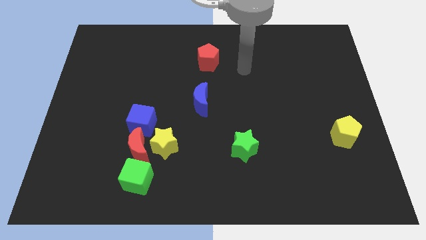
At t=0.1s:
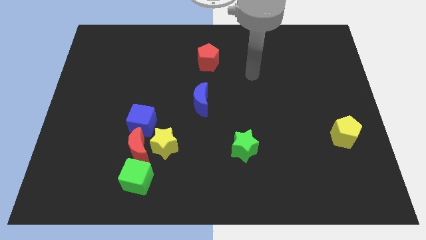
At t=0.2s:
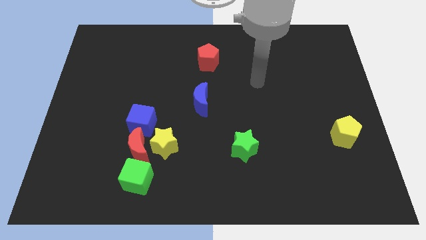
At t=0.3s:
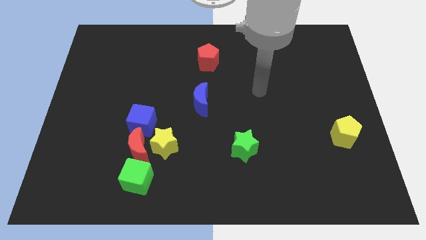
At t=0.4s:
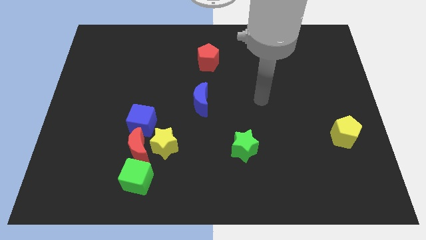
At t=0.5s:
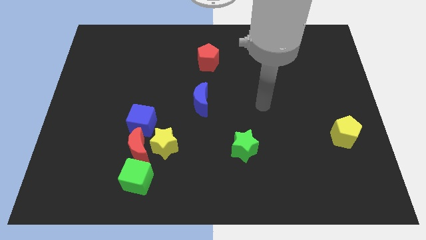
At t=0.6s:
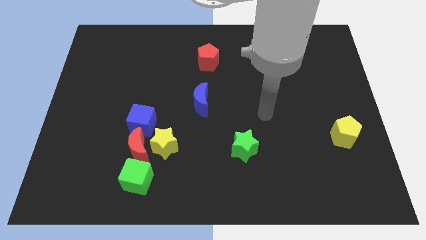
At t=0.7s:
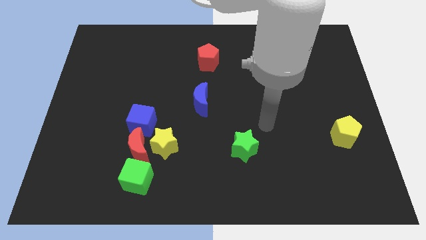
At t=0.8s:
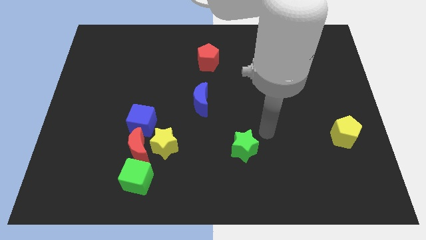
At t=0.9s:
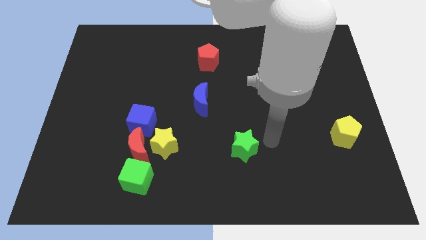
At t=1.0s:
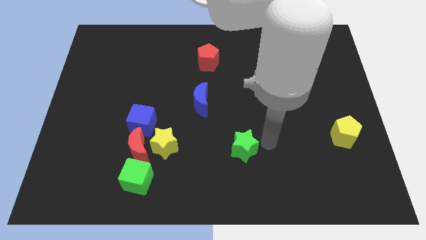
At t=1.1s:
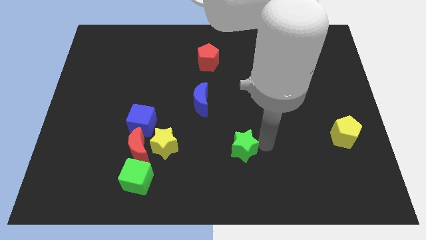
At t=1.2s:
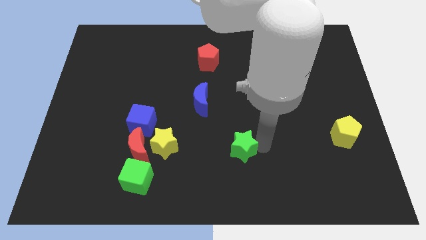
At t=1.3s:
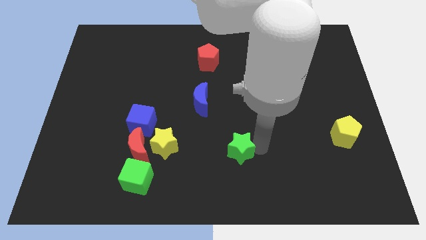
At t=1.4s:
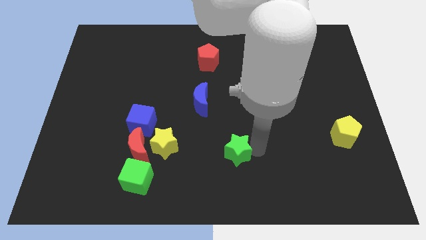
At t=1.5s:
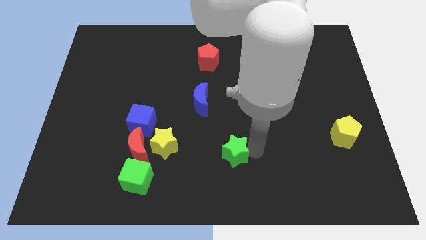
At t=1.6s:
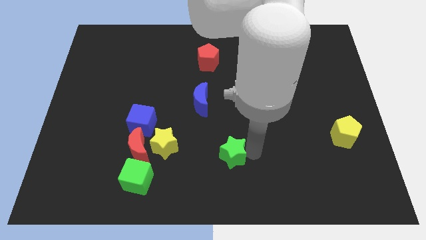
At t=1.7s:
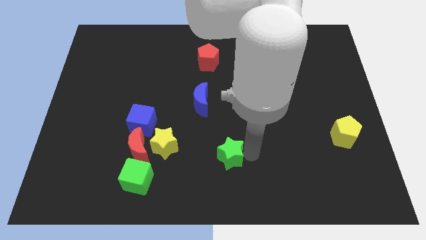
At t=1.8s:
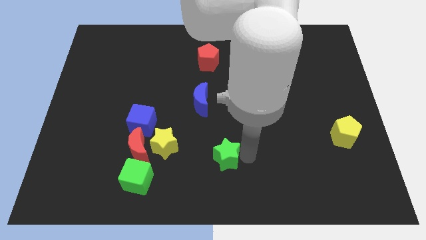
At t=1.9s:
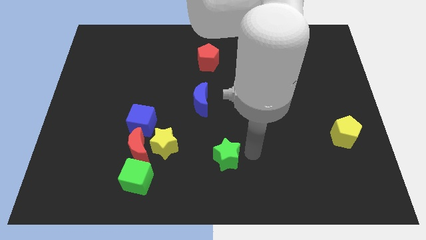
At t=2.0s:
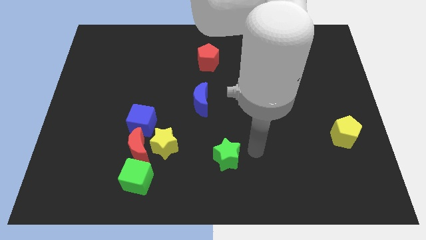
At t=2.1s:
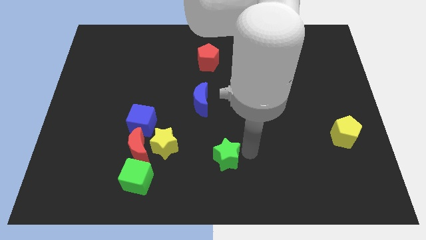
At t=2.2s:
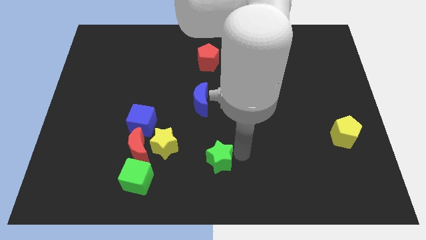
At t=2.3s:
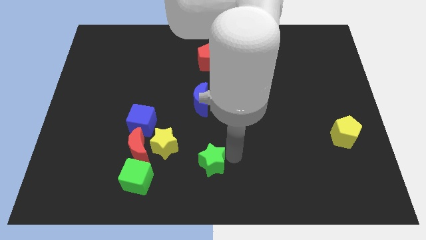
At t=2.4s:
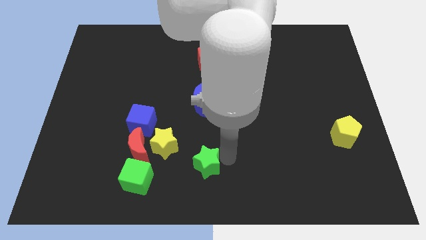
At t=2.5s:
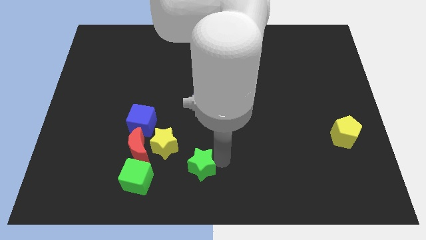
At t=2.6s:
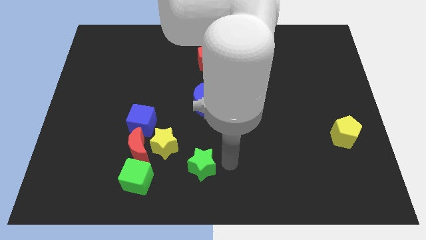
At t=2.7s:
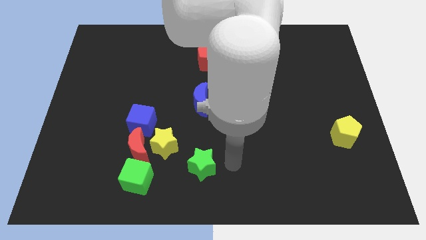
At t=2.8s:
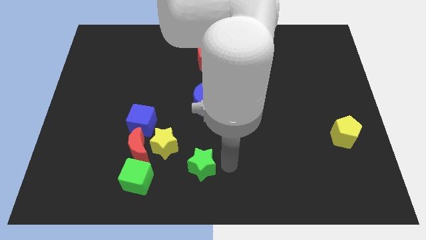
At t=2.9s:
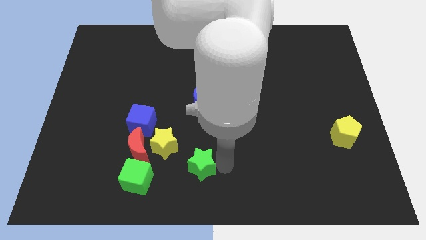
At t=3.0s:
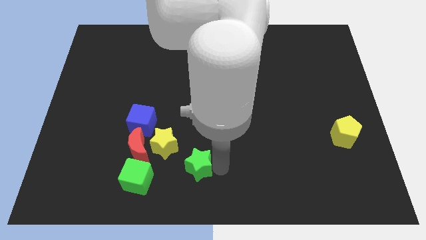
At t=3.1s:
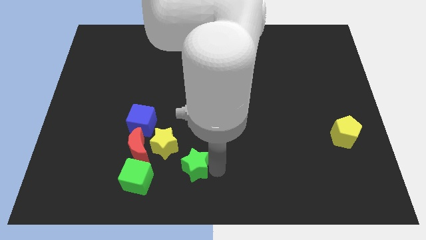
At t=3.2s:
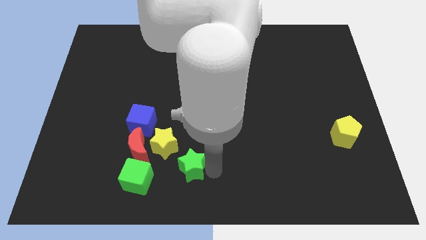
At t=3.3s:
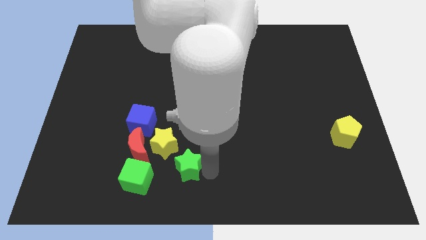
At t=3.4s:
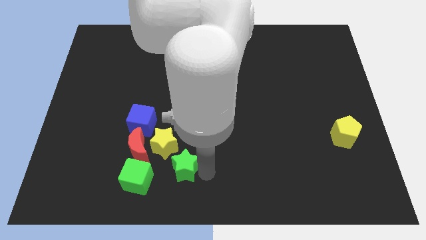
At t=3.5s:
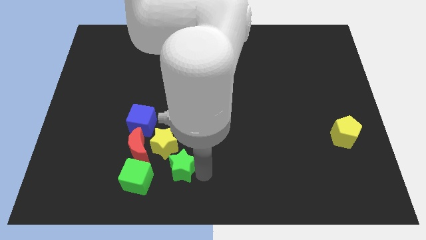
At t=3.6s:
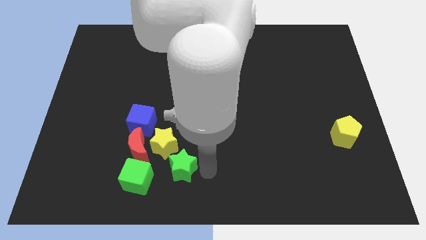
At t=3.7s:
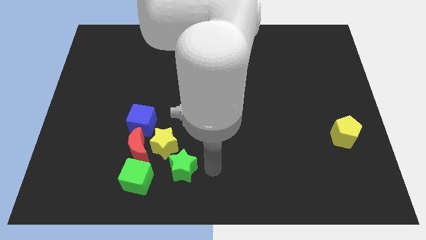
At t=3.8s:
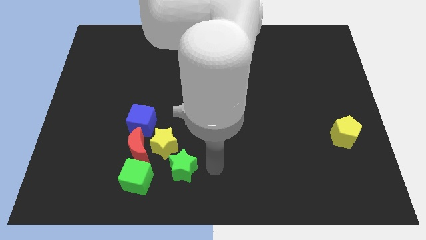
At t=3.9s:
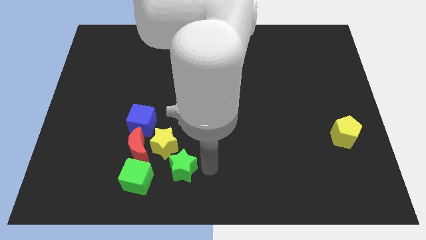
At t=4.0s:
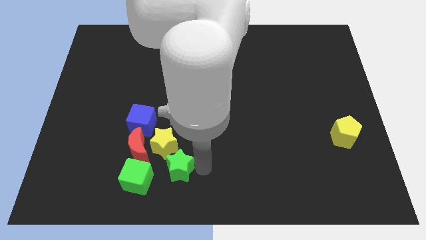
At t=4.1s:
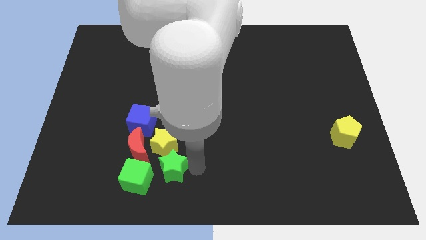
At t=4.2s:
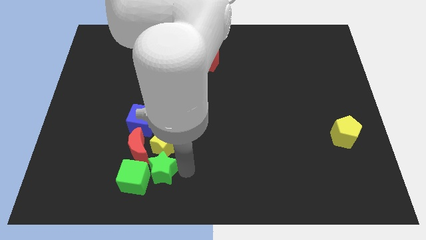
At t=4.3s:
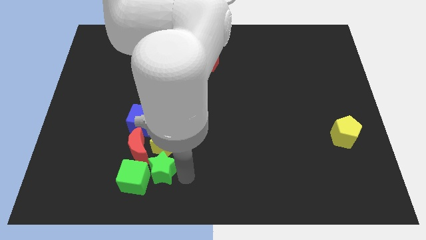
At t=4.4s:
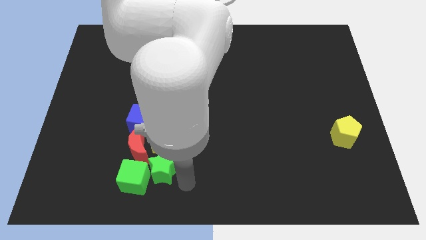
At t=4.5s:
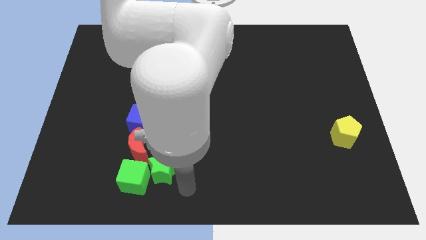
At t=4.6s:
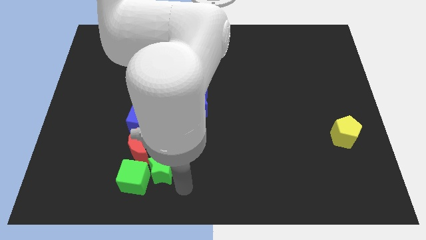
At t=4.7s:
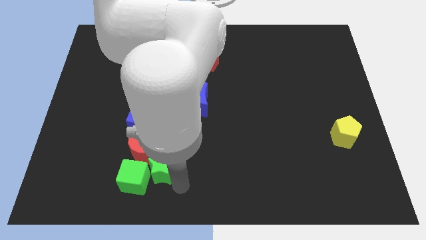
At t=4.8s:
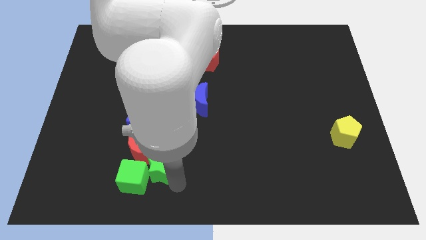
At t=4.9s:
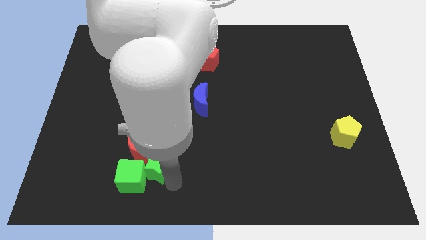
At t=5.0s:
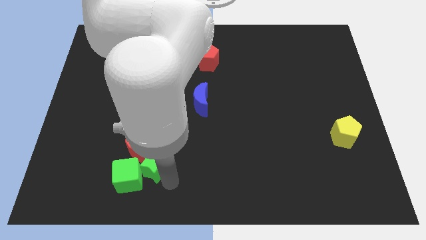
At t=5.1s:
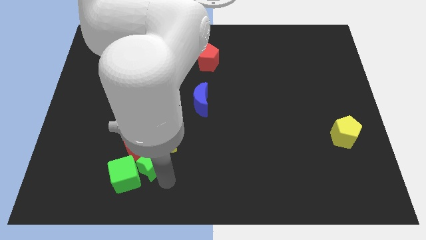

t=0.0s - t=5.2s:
slide the green star close to the red moon

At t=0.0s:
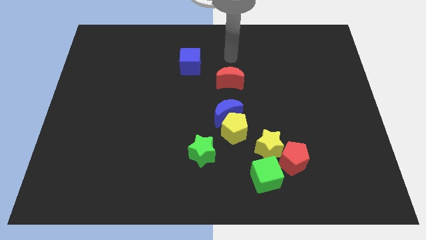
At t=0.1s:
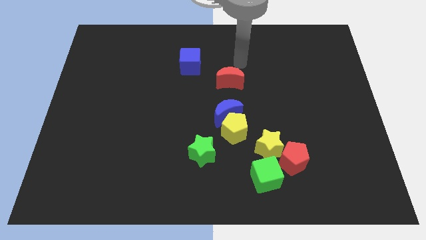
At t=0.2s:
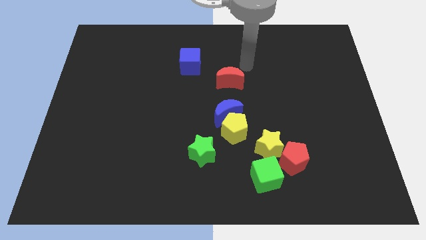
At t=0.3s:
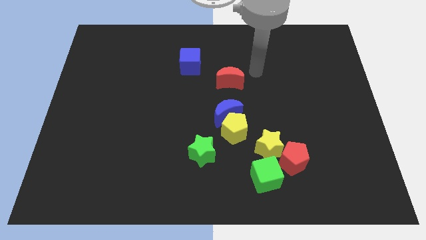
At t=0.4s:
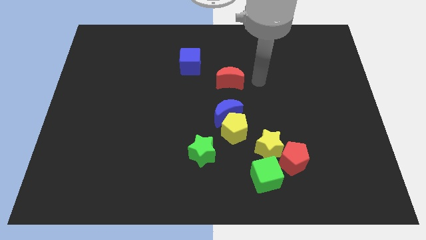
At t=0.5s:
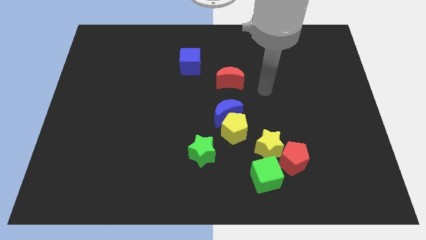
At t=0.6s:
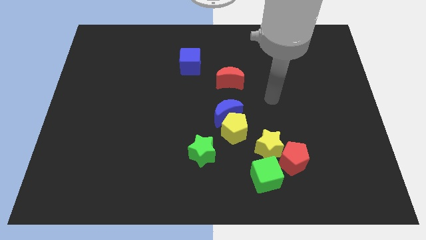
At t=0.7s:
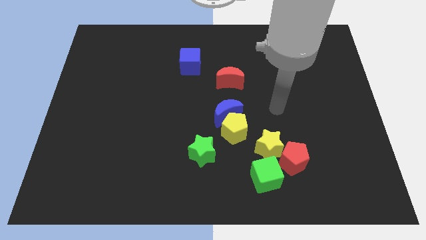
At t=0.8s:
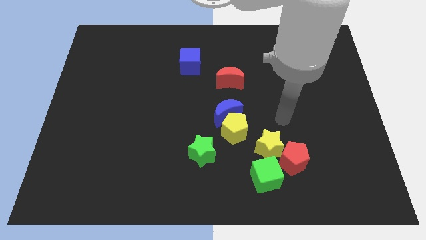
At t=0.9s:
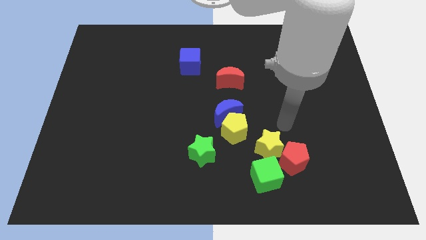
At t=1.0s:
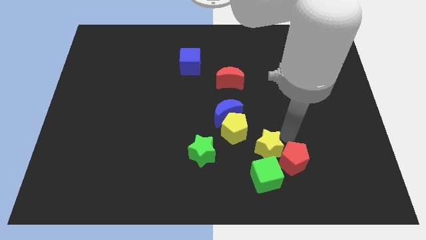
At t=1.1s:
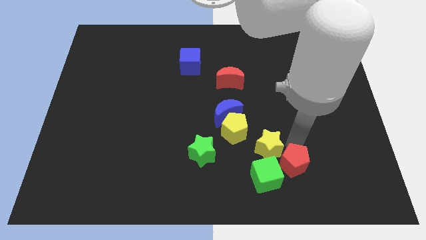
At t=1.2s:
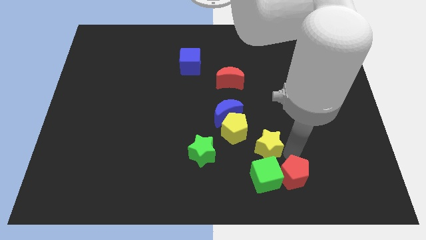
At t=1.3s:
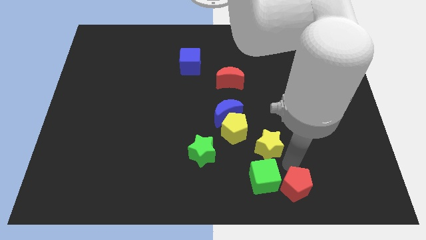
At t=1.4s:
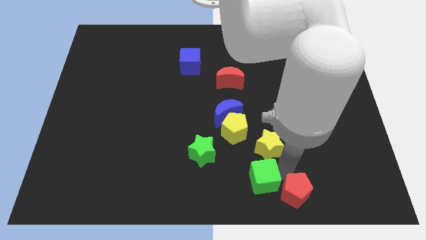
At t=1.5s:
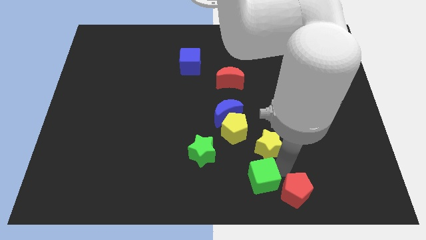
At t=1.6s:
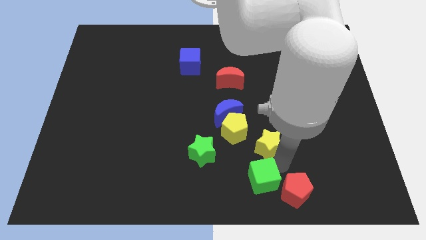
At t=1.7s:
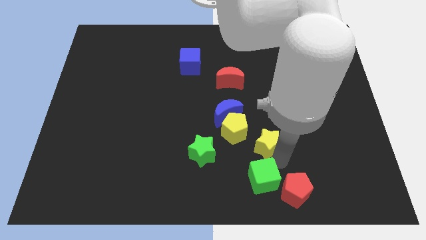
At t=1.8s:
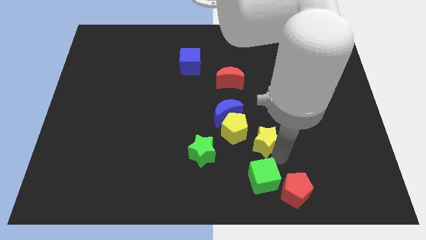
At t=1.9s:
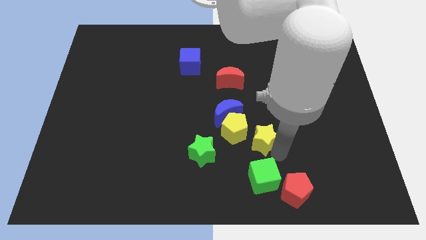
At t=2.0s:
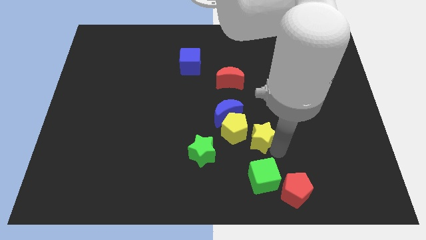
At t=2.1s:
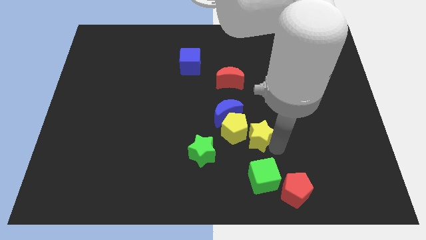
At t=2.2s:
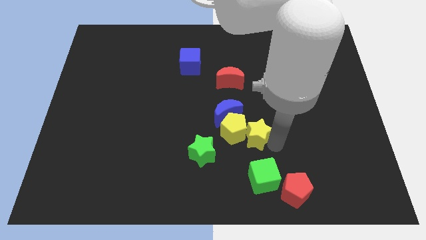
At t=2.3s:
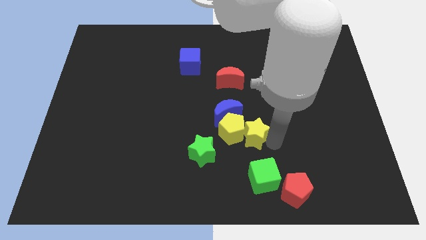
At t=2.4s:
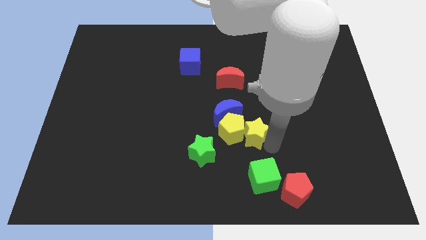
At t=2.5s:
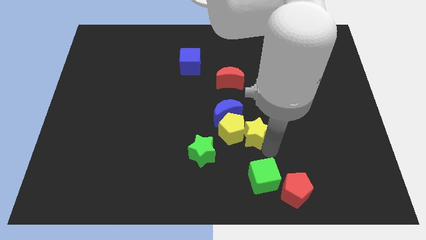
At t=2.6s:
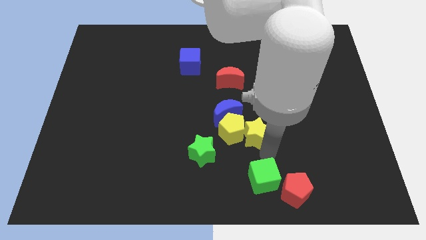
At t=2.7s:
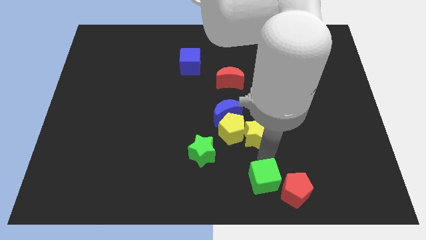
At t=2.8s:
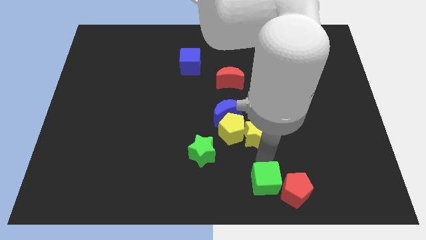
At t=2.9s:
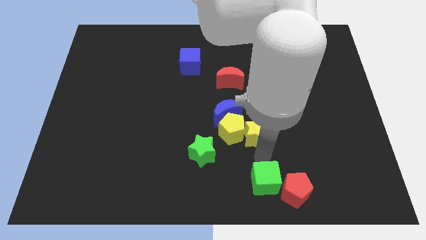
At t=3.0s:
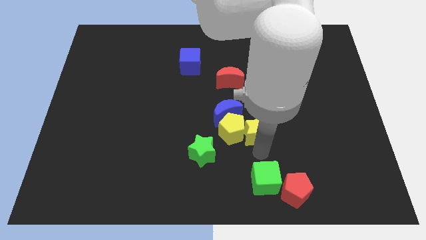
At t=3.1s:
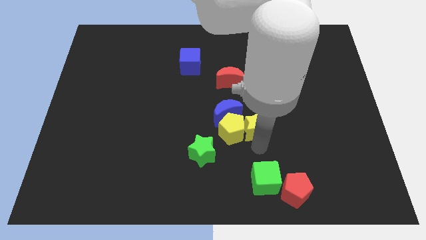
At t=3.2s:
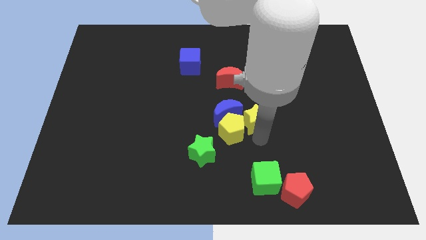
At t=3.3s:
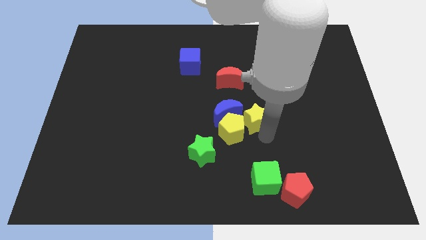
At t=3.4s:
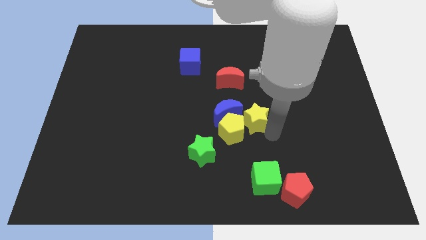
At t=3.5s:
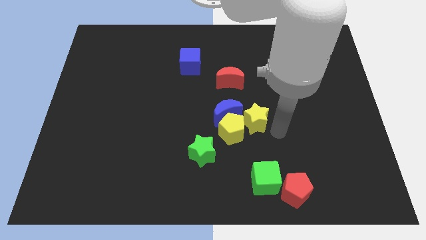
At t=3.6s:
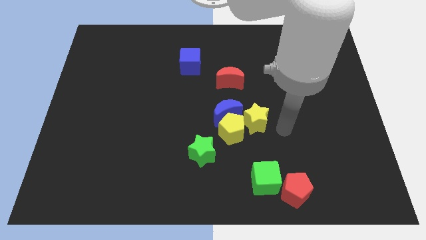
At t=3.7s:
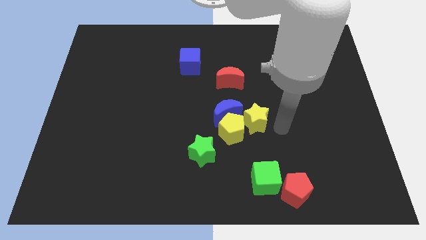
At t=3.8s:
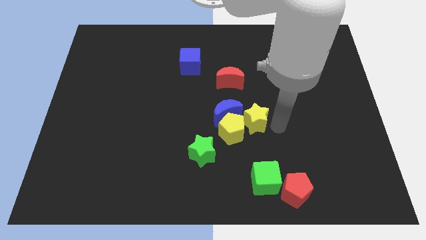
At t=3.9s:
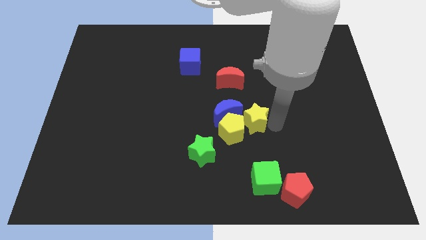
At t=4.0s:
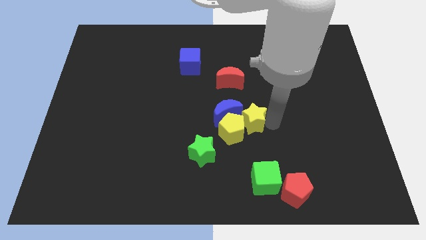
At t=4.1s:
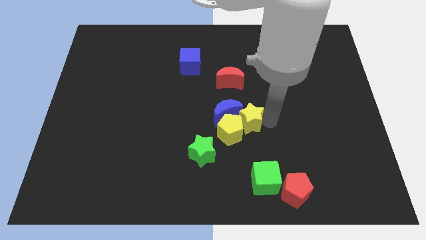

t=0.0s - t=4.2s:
put the yellow star to the blue moon
